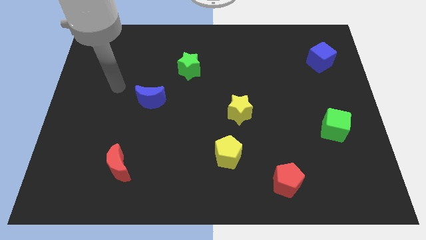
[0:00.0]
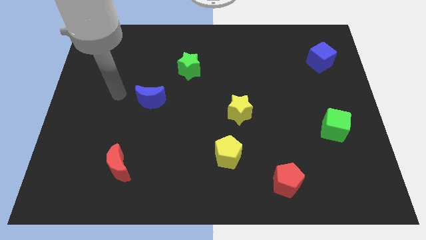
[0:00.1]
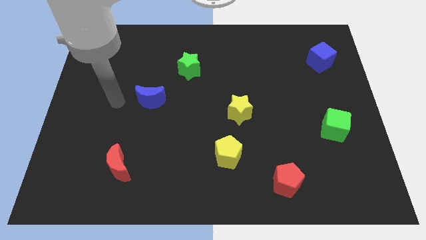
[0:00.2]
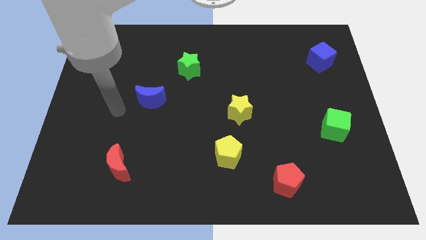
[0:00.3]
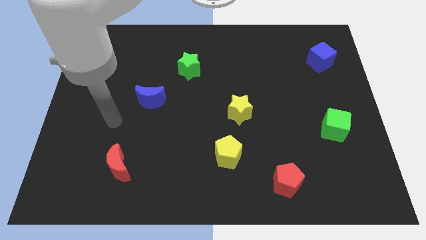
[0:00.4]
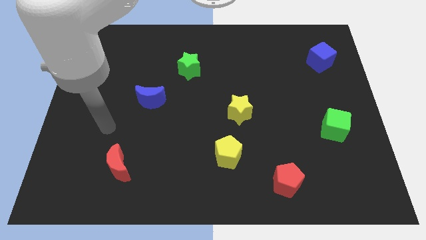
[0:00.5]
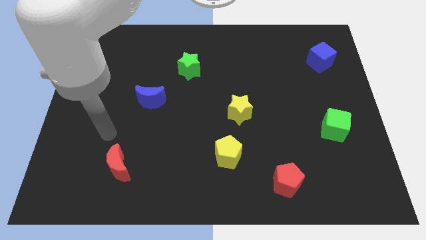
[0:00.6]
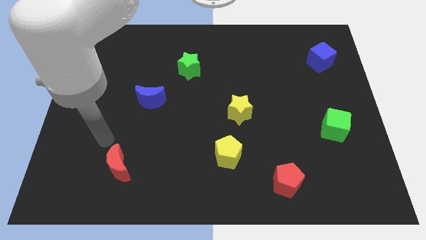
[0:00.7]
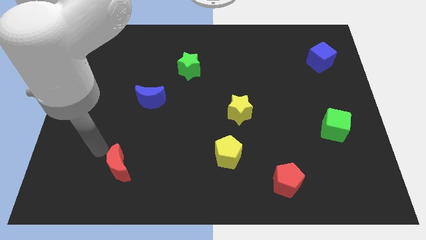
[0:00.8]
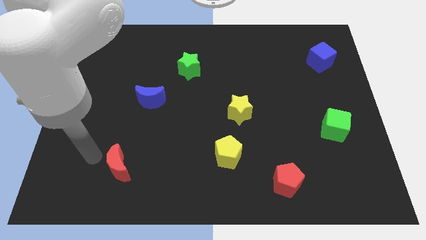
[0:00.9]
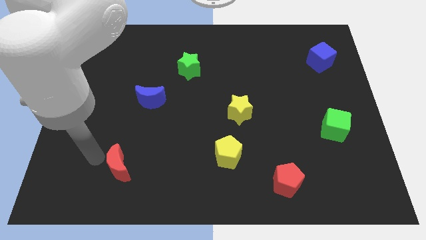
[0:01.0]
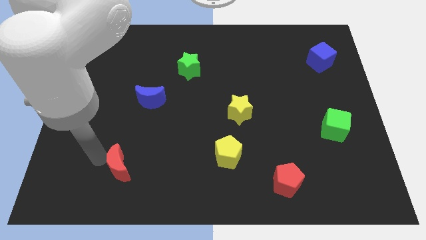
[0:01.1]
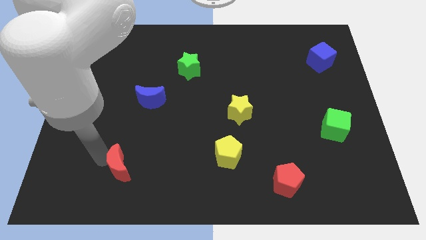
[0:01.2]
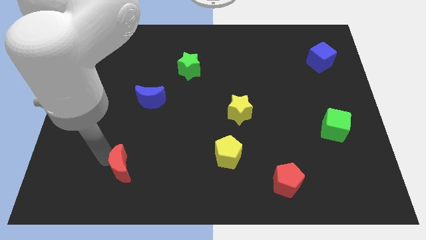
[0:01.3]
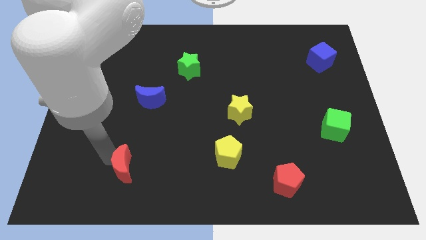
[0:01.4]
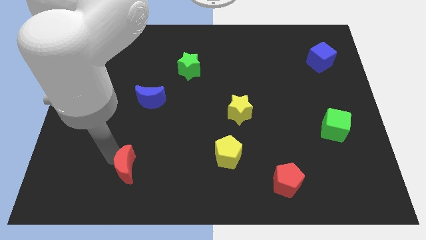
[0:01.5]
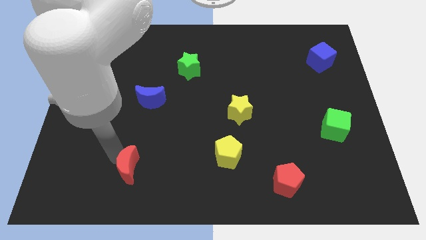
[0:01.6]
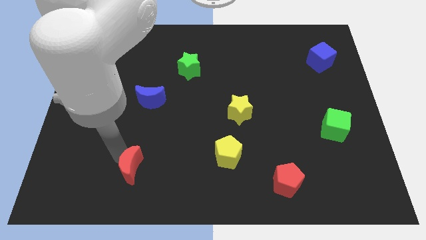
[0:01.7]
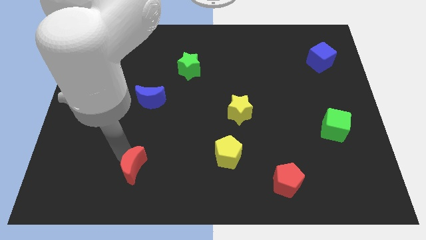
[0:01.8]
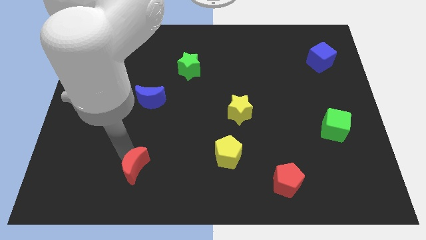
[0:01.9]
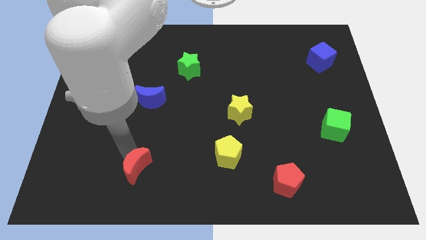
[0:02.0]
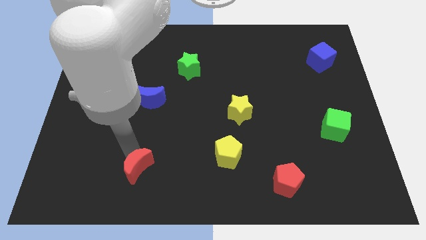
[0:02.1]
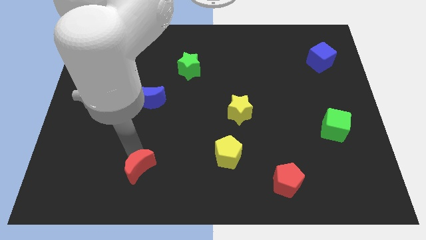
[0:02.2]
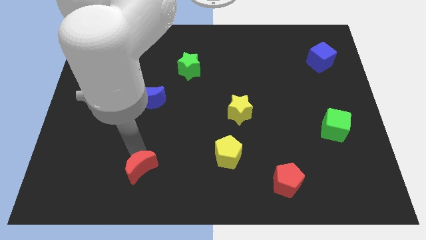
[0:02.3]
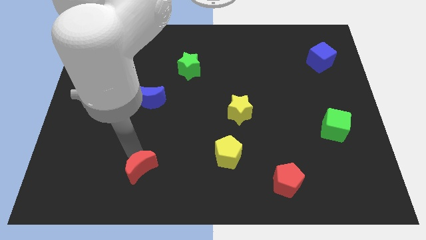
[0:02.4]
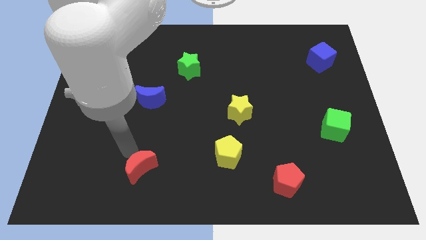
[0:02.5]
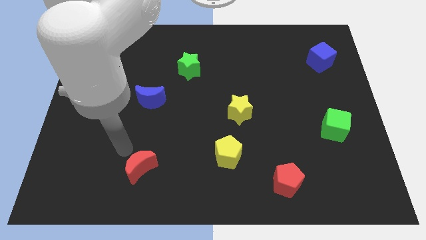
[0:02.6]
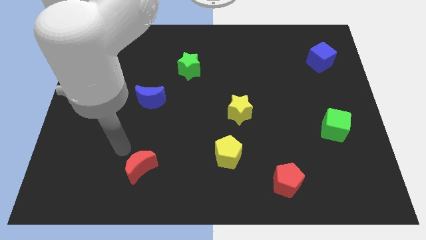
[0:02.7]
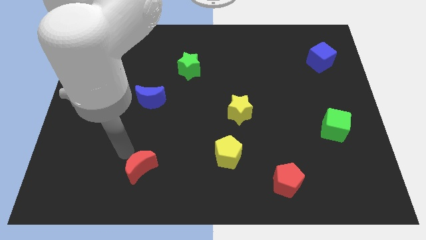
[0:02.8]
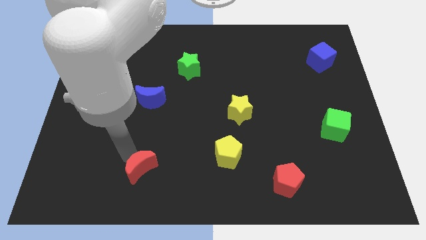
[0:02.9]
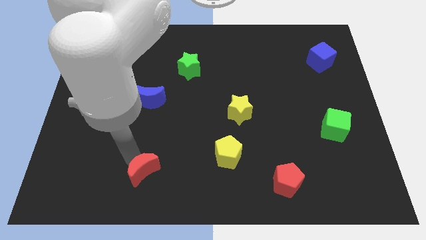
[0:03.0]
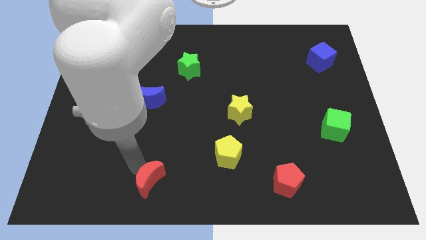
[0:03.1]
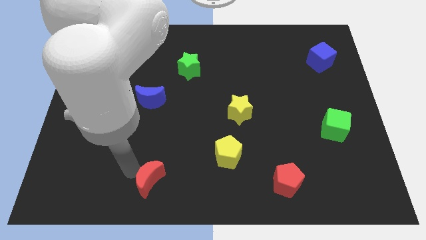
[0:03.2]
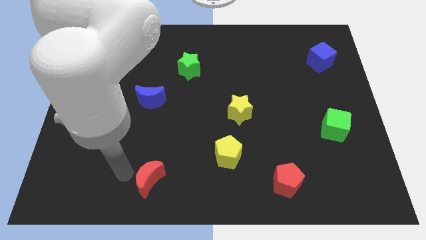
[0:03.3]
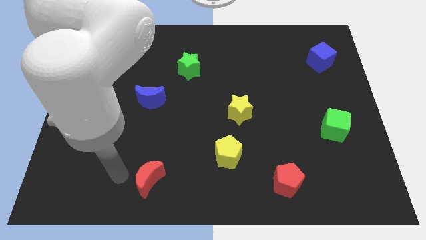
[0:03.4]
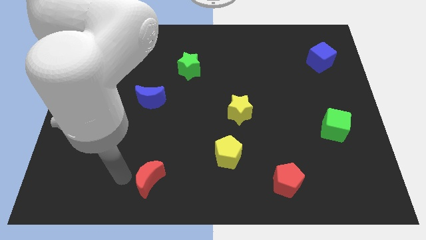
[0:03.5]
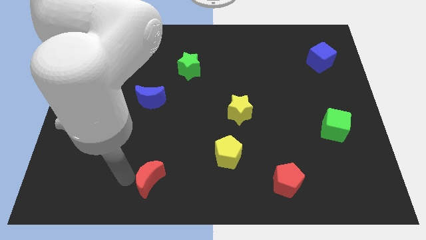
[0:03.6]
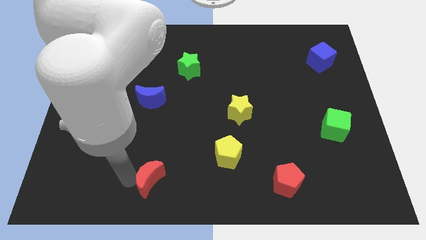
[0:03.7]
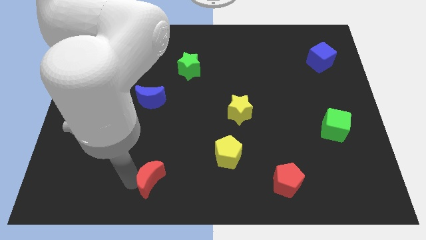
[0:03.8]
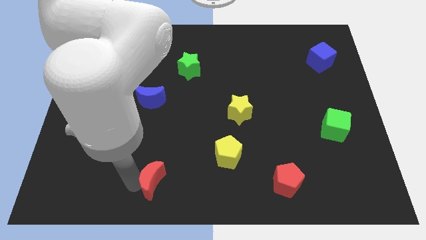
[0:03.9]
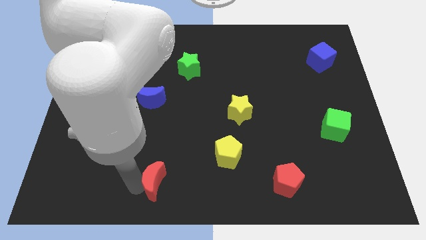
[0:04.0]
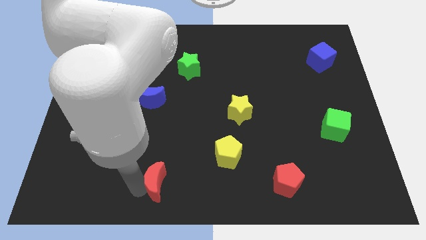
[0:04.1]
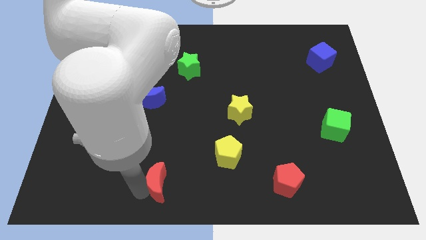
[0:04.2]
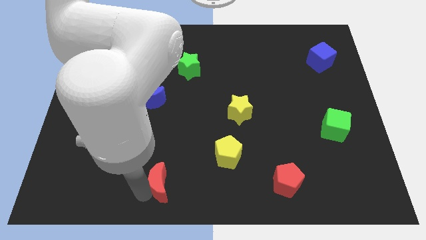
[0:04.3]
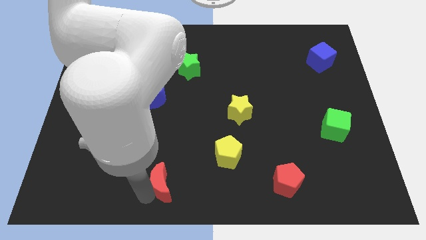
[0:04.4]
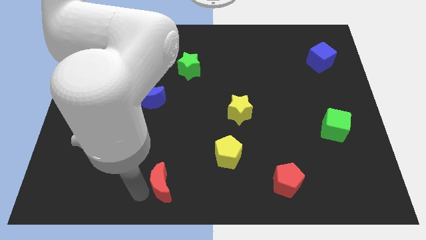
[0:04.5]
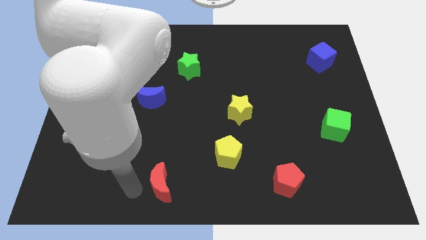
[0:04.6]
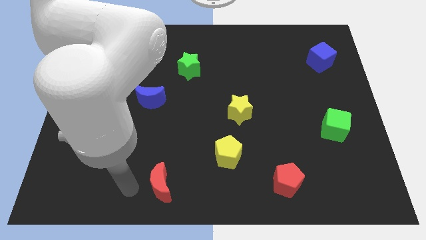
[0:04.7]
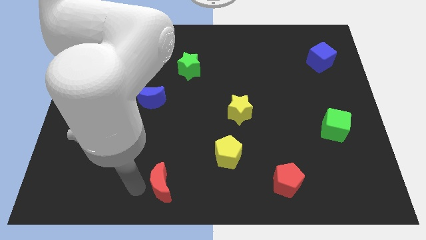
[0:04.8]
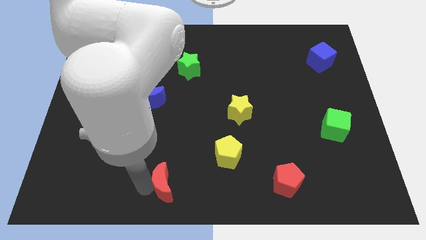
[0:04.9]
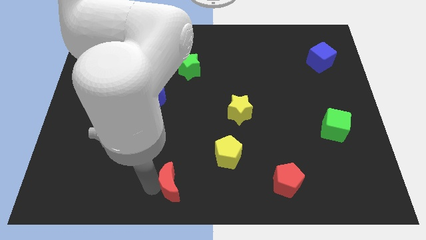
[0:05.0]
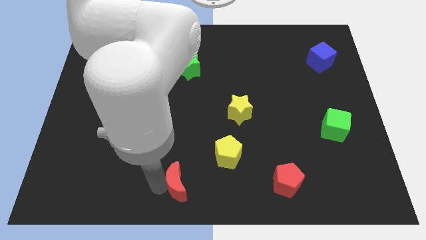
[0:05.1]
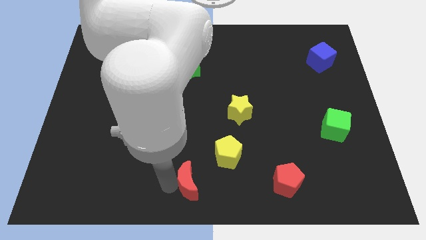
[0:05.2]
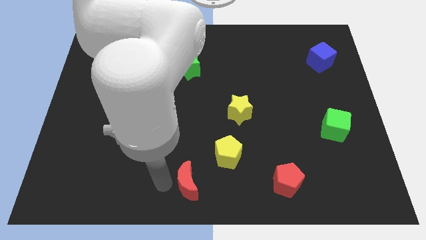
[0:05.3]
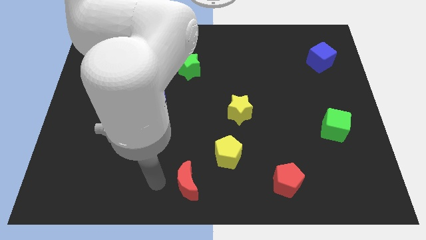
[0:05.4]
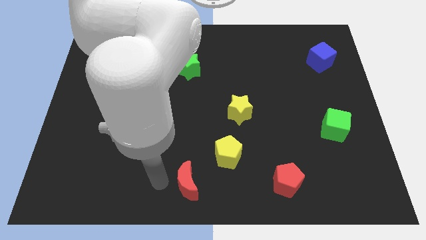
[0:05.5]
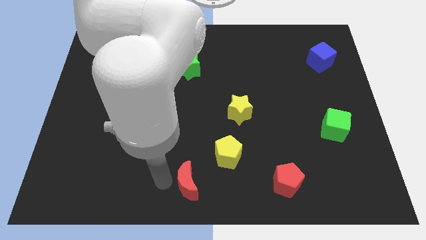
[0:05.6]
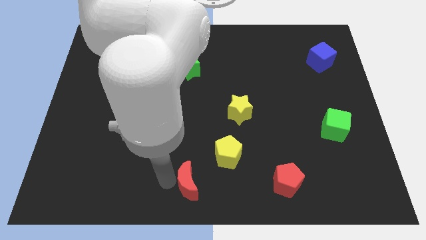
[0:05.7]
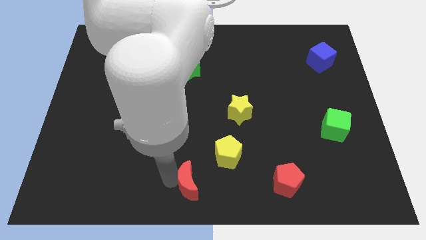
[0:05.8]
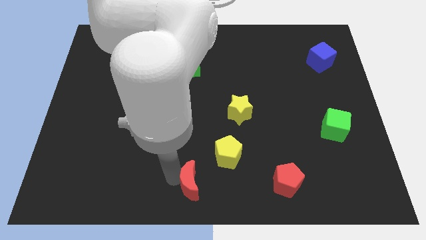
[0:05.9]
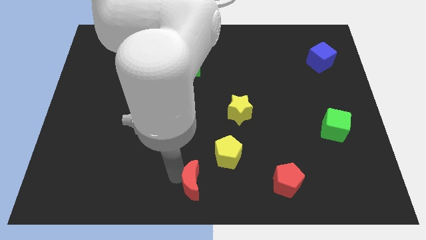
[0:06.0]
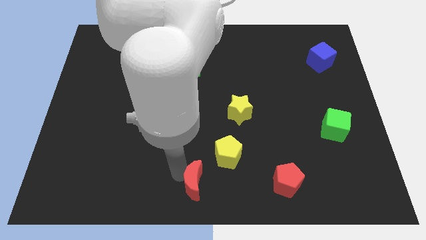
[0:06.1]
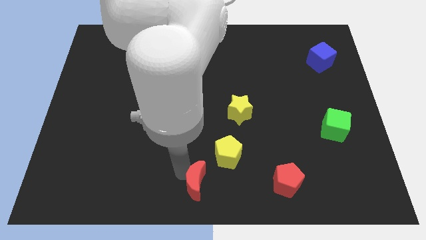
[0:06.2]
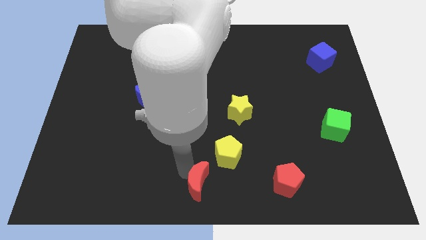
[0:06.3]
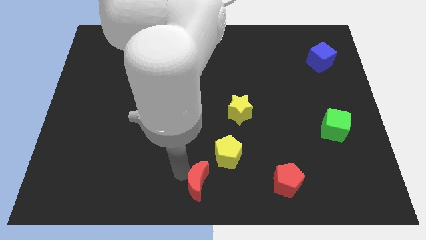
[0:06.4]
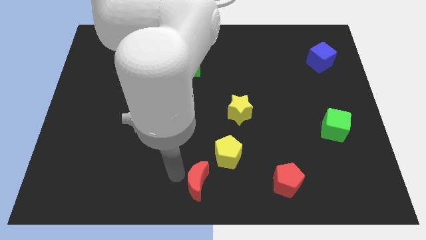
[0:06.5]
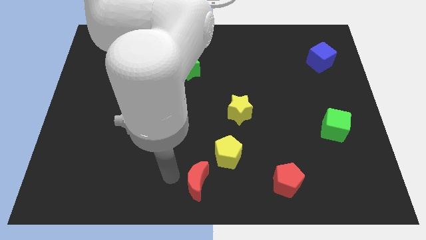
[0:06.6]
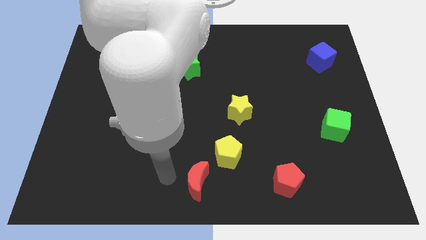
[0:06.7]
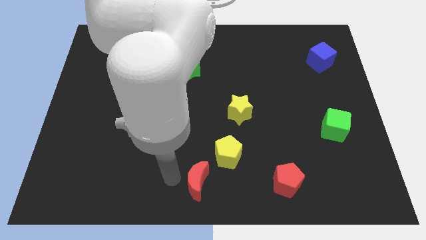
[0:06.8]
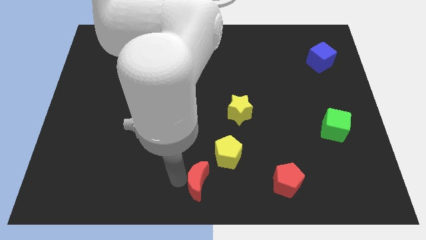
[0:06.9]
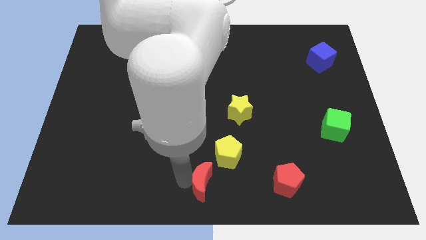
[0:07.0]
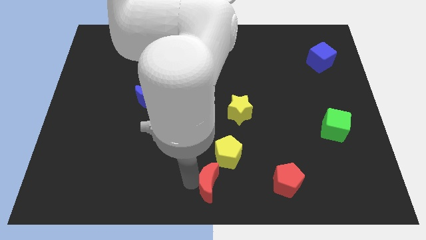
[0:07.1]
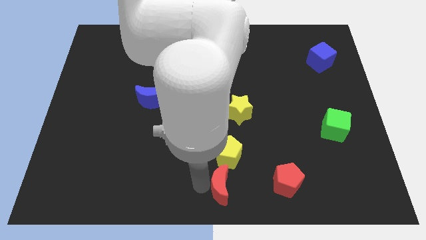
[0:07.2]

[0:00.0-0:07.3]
push the red moon to the right

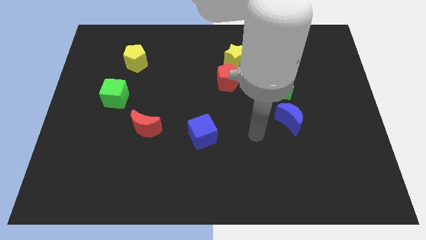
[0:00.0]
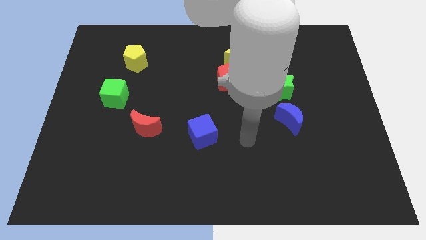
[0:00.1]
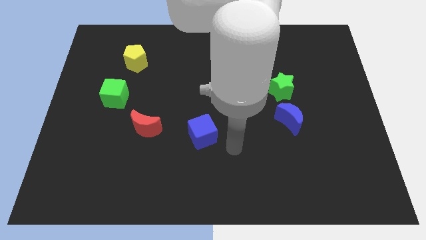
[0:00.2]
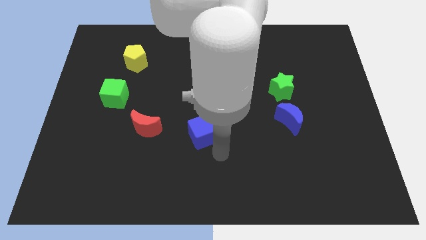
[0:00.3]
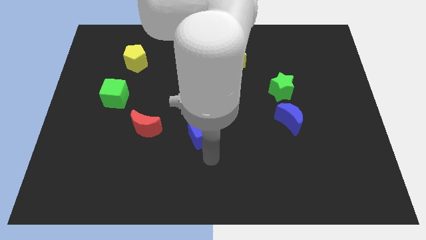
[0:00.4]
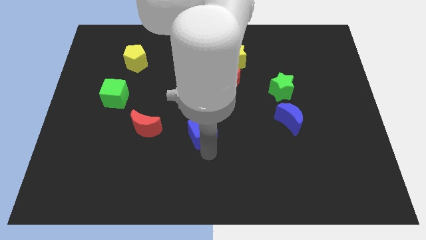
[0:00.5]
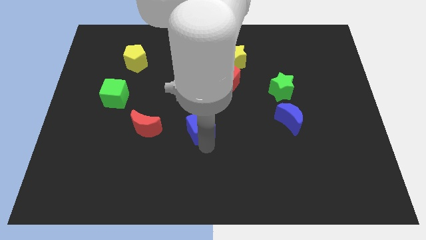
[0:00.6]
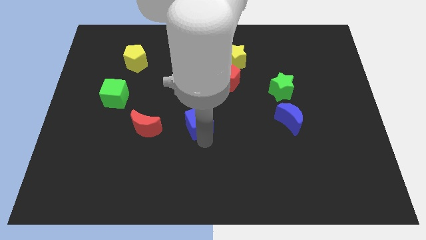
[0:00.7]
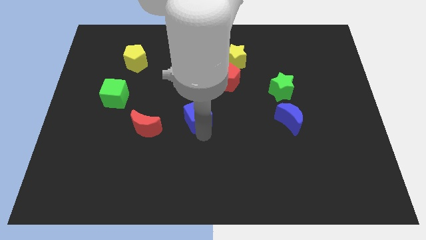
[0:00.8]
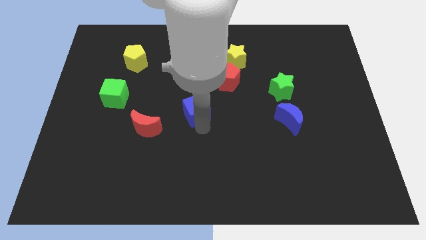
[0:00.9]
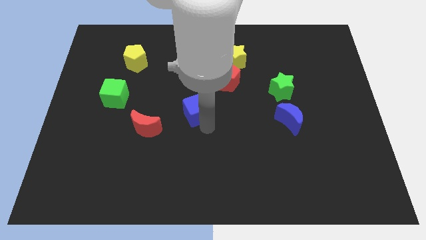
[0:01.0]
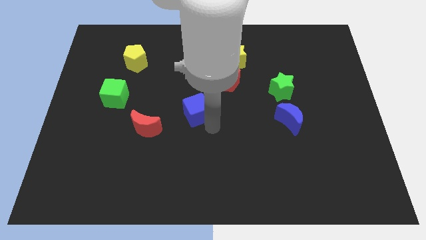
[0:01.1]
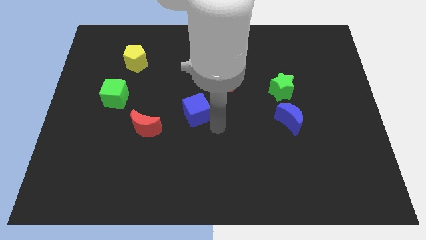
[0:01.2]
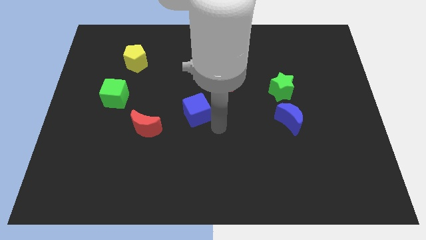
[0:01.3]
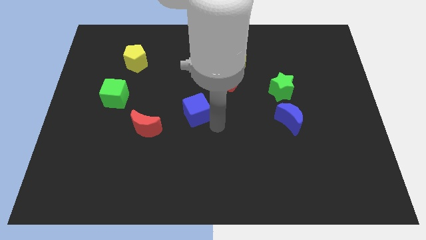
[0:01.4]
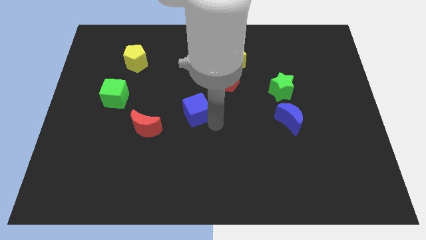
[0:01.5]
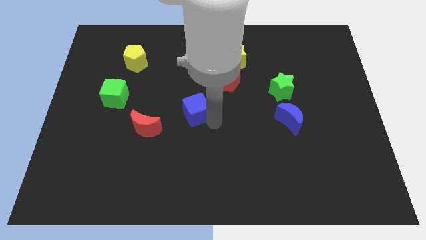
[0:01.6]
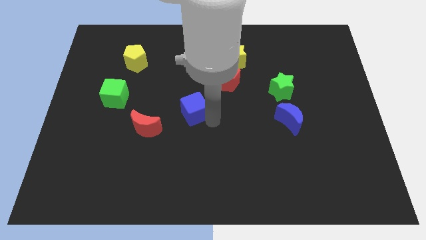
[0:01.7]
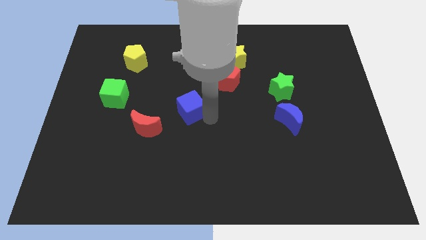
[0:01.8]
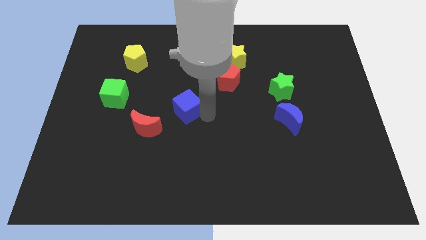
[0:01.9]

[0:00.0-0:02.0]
move the blue cube up and to the left a little
